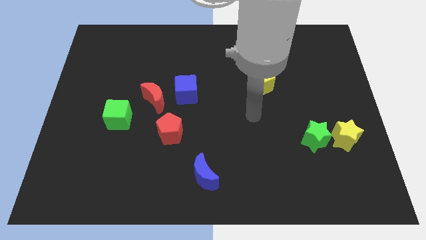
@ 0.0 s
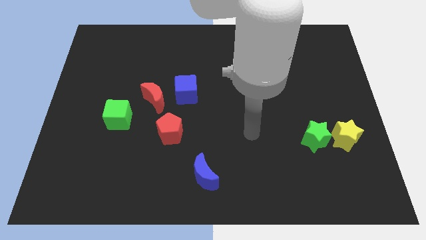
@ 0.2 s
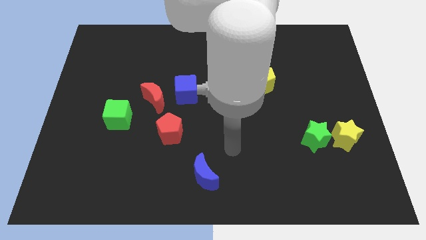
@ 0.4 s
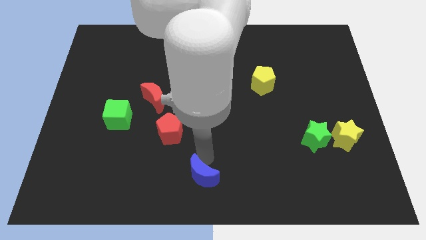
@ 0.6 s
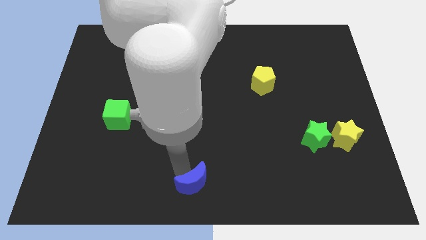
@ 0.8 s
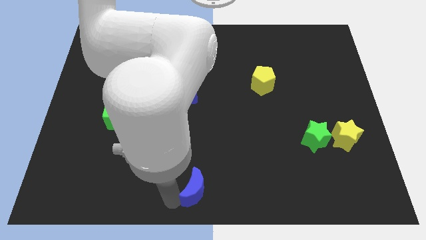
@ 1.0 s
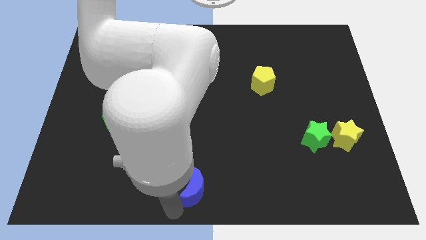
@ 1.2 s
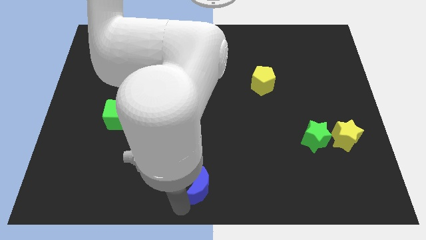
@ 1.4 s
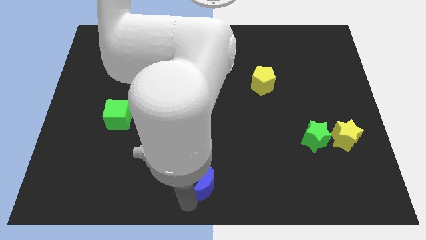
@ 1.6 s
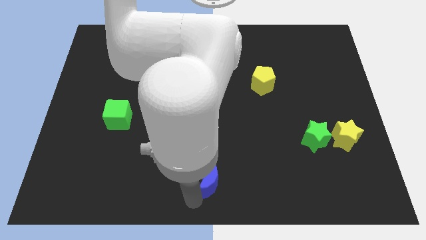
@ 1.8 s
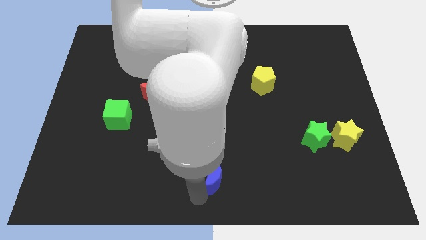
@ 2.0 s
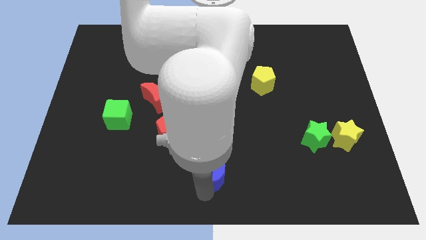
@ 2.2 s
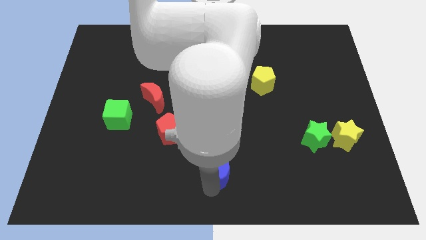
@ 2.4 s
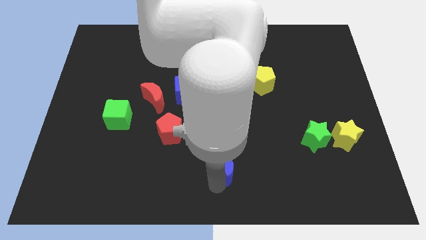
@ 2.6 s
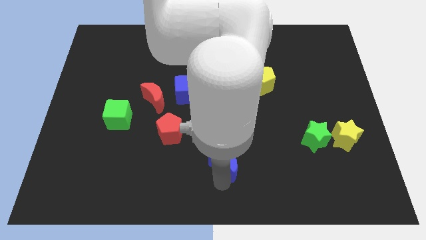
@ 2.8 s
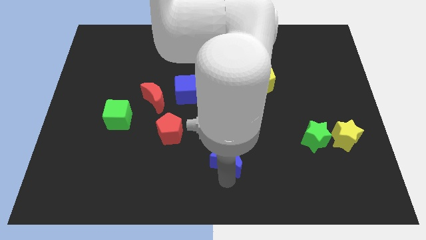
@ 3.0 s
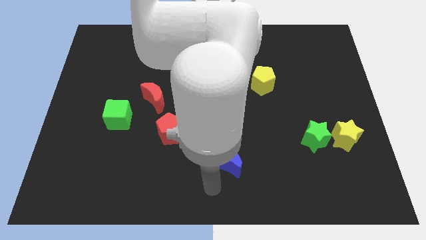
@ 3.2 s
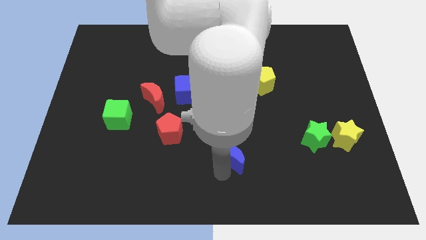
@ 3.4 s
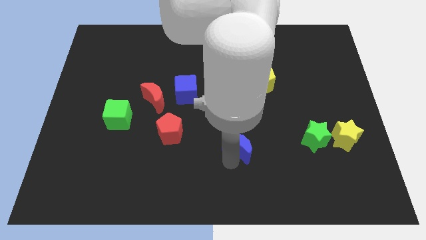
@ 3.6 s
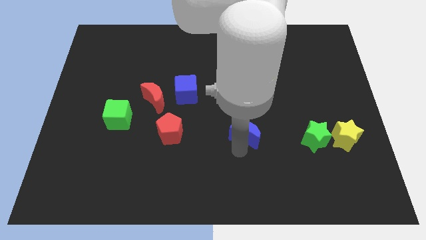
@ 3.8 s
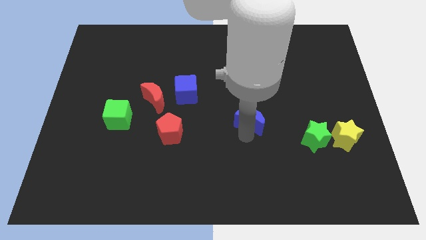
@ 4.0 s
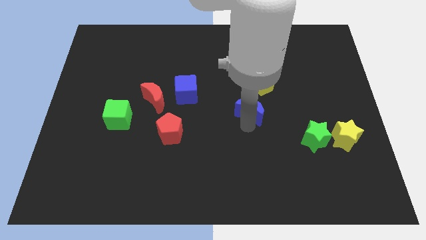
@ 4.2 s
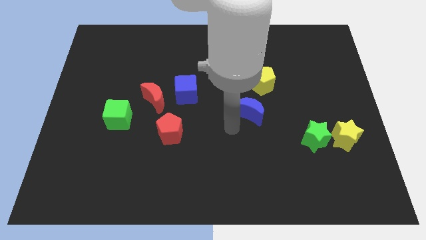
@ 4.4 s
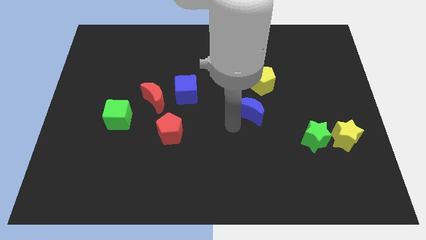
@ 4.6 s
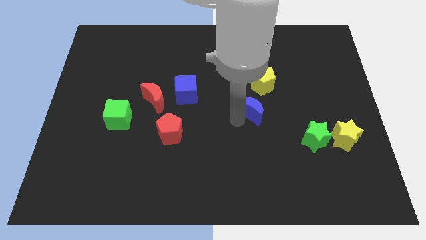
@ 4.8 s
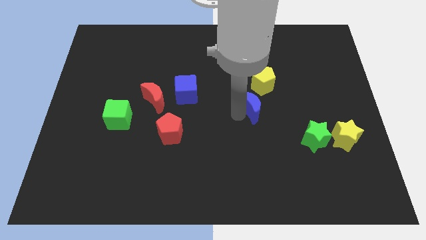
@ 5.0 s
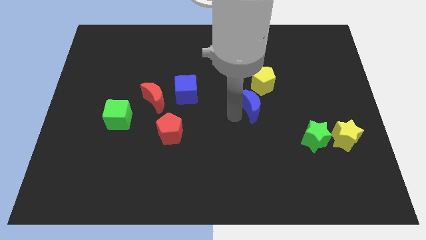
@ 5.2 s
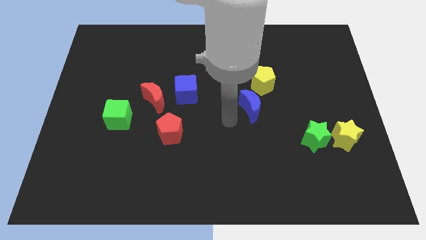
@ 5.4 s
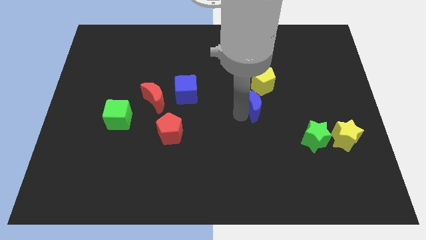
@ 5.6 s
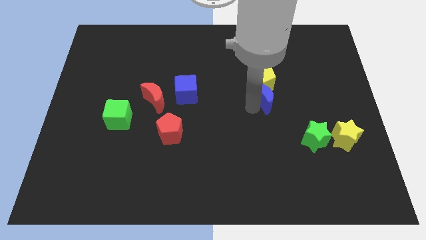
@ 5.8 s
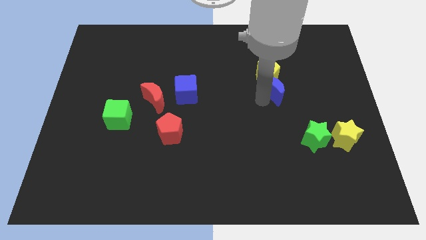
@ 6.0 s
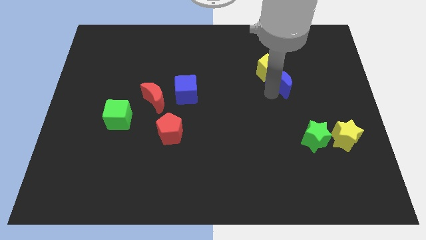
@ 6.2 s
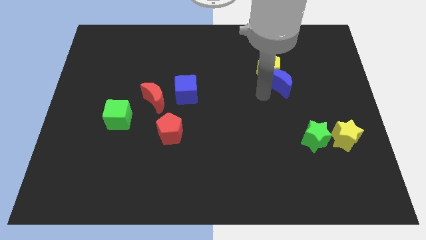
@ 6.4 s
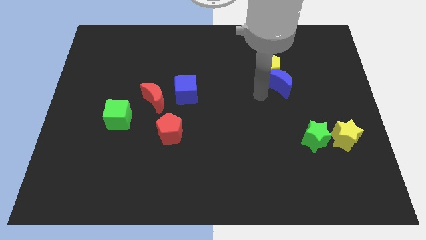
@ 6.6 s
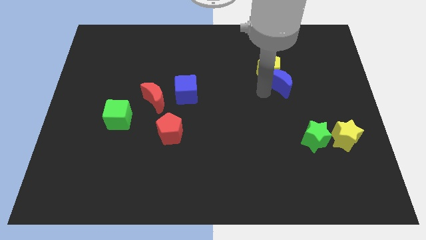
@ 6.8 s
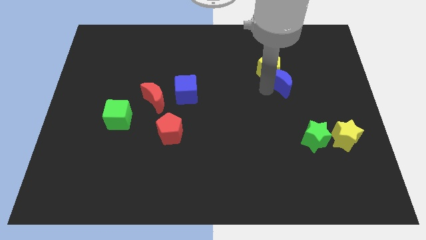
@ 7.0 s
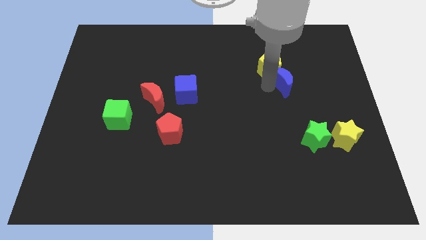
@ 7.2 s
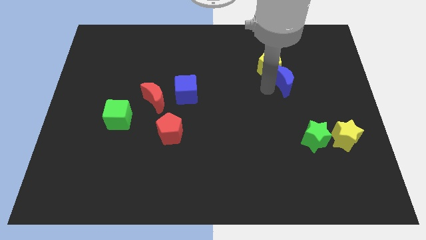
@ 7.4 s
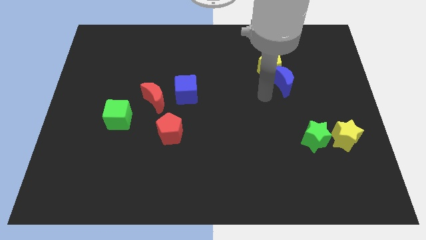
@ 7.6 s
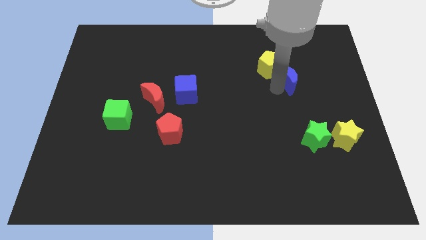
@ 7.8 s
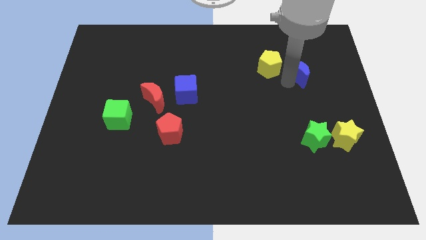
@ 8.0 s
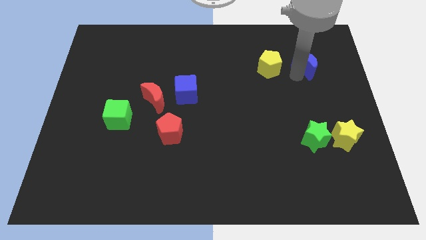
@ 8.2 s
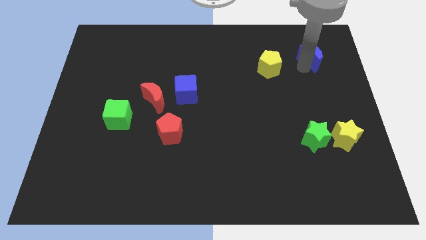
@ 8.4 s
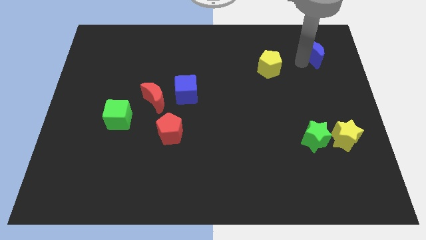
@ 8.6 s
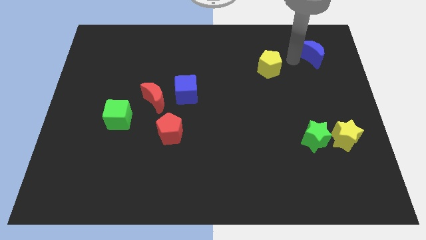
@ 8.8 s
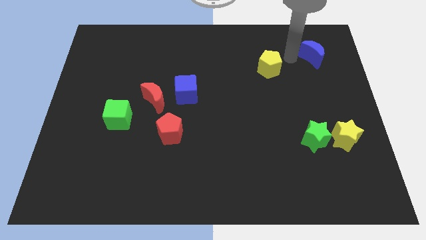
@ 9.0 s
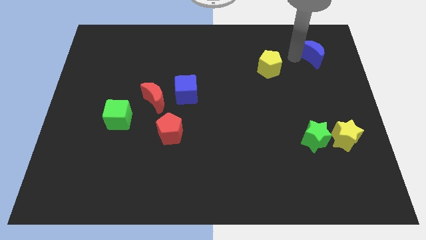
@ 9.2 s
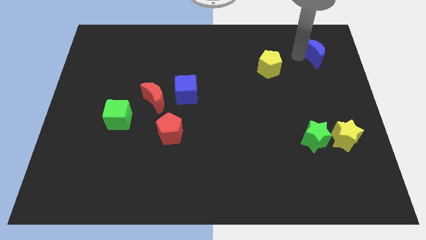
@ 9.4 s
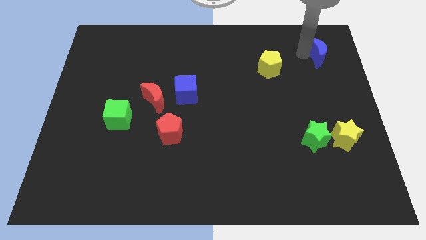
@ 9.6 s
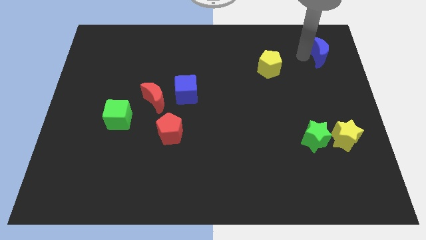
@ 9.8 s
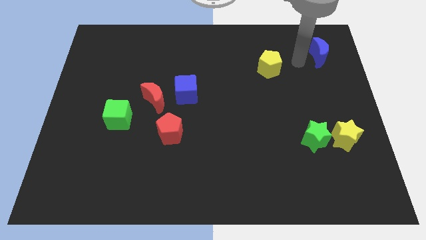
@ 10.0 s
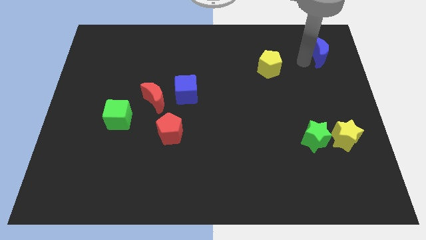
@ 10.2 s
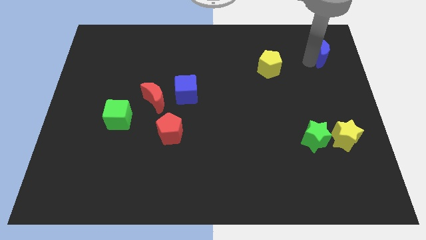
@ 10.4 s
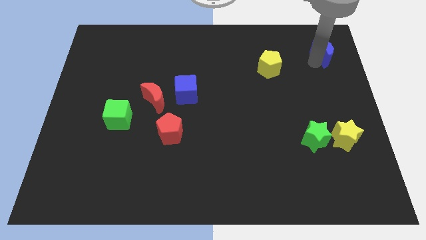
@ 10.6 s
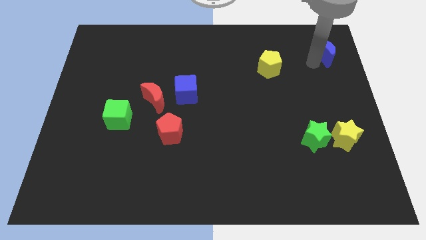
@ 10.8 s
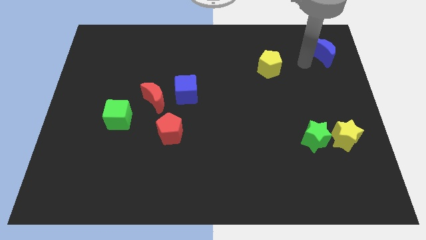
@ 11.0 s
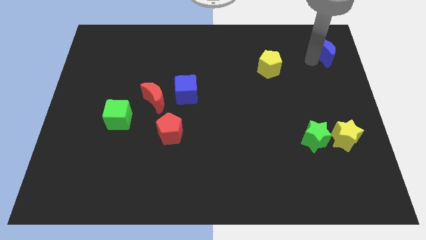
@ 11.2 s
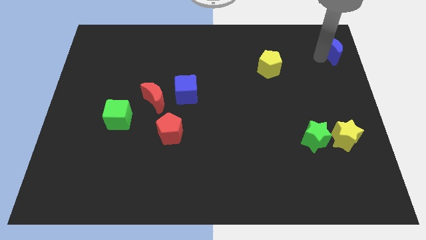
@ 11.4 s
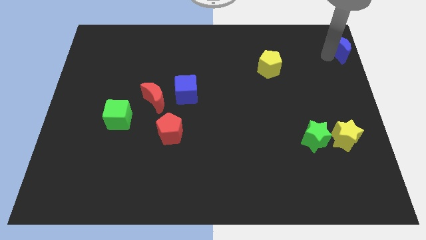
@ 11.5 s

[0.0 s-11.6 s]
slide the blue moon to the upper right corner

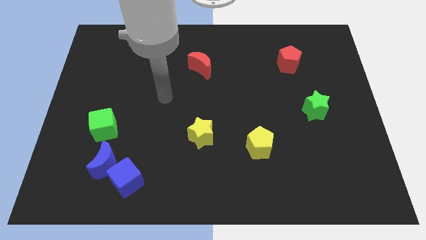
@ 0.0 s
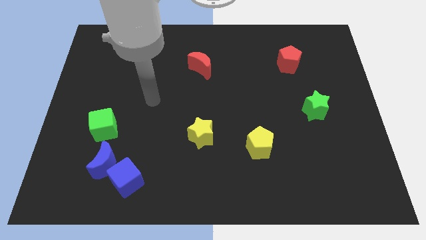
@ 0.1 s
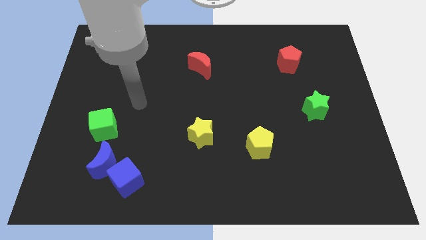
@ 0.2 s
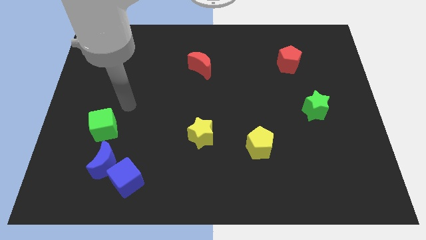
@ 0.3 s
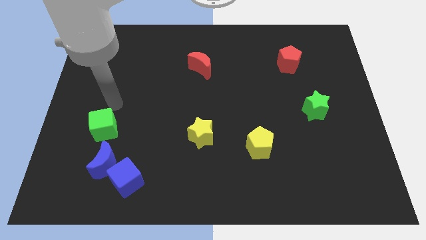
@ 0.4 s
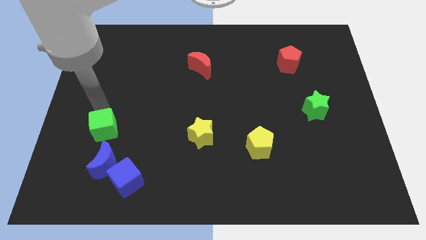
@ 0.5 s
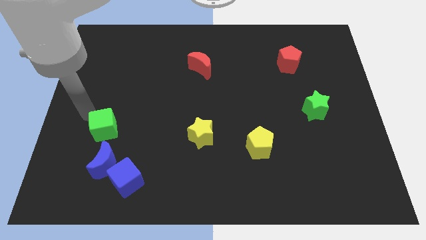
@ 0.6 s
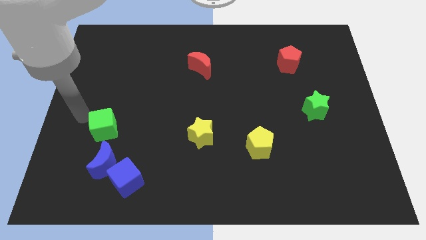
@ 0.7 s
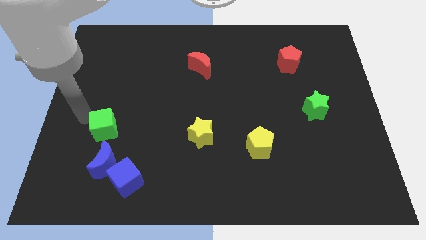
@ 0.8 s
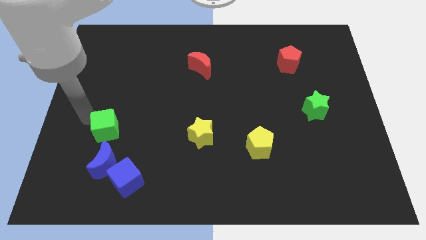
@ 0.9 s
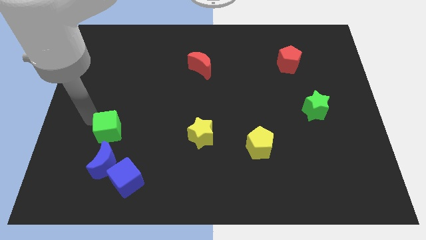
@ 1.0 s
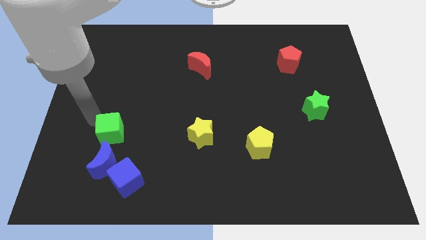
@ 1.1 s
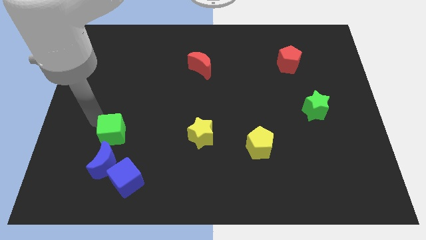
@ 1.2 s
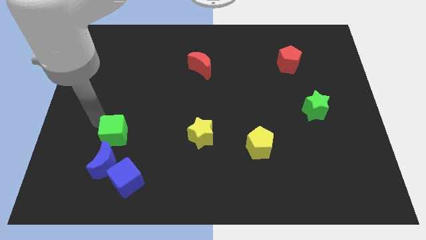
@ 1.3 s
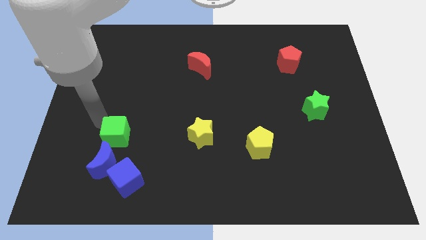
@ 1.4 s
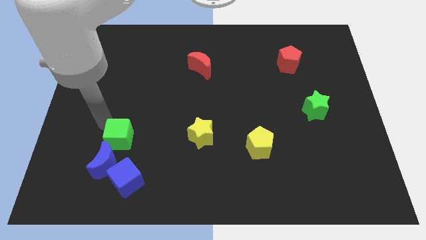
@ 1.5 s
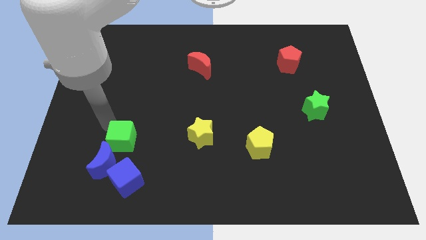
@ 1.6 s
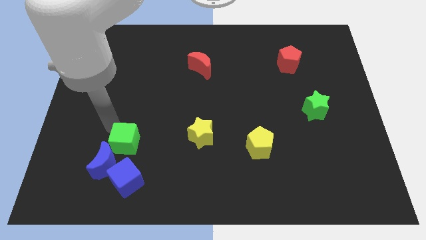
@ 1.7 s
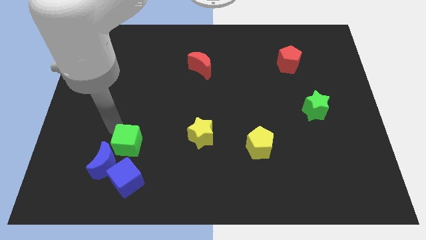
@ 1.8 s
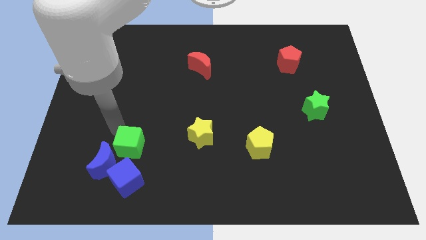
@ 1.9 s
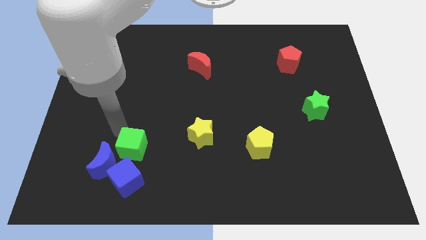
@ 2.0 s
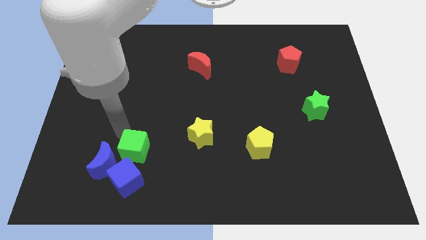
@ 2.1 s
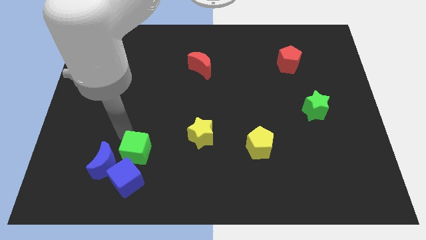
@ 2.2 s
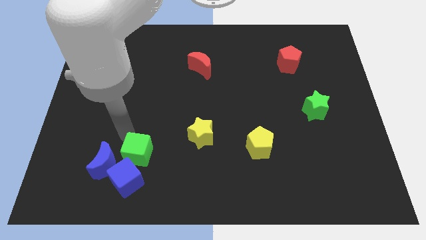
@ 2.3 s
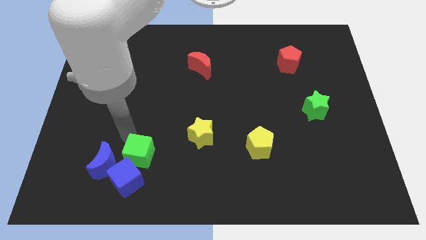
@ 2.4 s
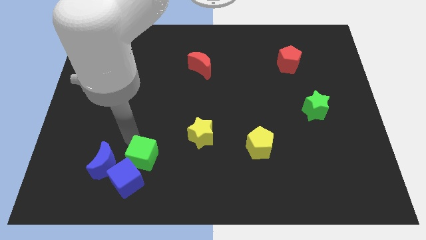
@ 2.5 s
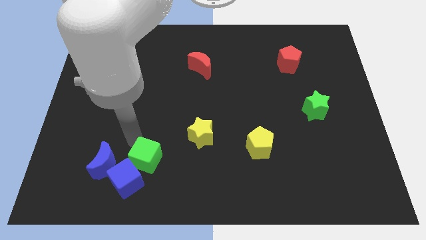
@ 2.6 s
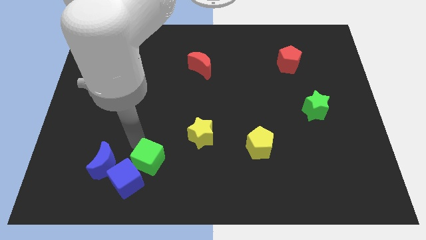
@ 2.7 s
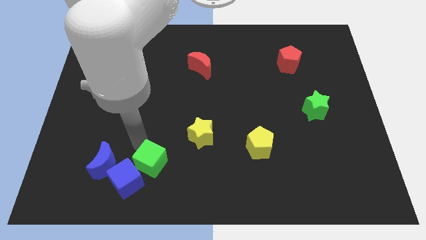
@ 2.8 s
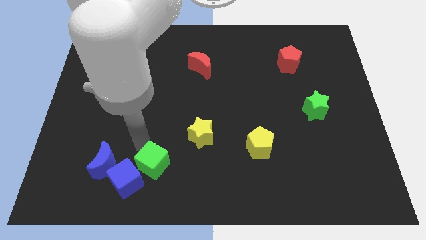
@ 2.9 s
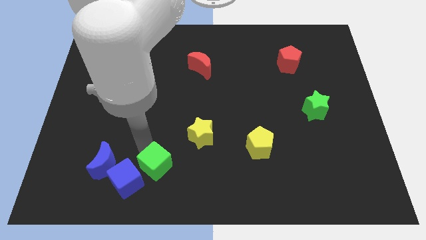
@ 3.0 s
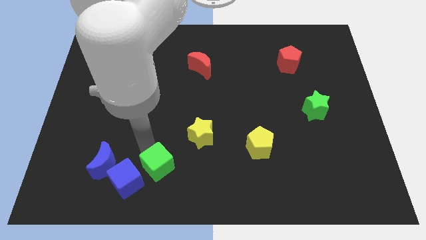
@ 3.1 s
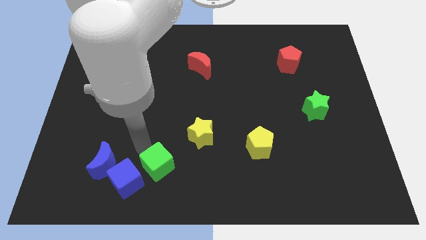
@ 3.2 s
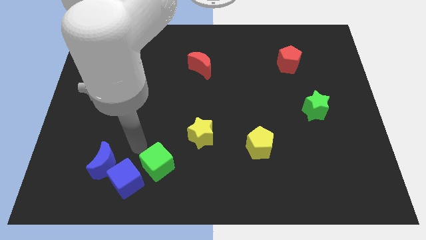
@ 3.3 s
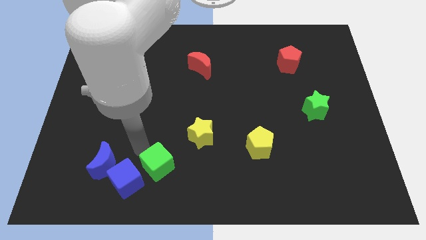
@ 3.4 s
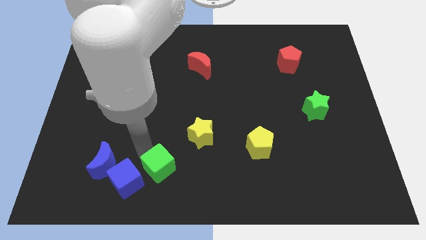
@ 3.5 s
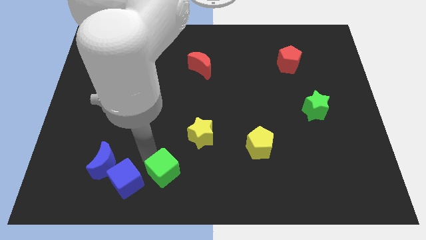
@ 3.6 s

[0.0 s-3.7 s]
push the green cube to the bottom
